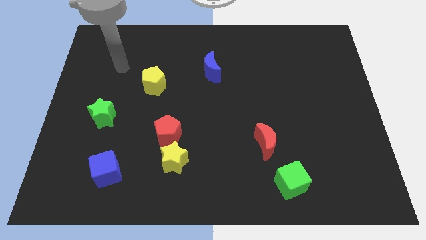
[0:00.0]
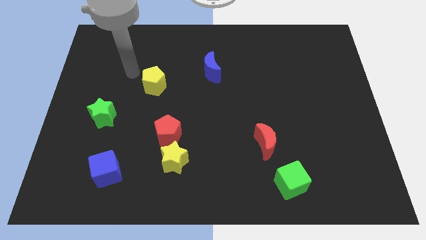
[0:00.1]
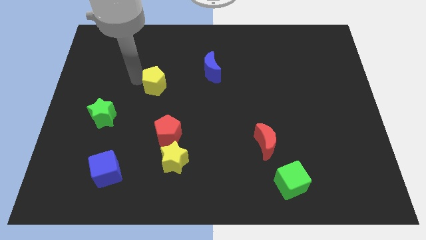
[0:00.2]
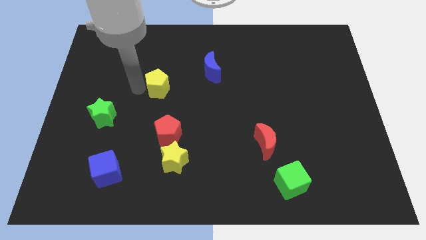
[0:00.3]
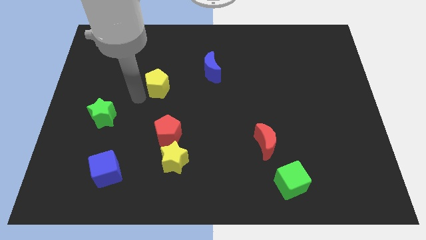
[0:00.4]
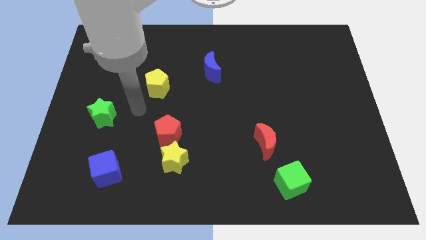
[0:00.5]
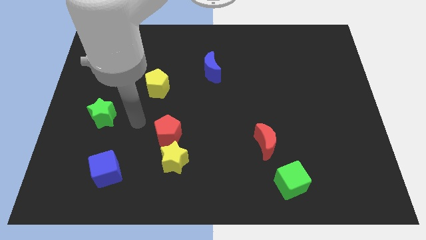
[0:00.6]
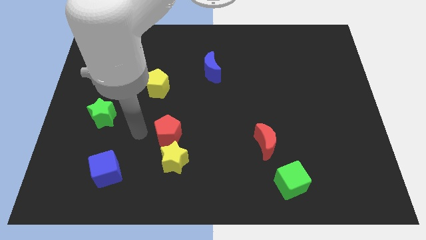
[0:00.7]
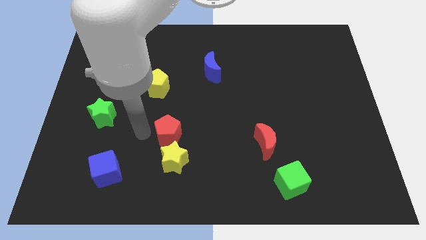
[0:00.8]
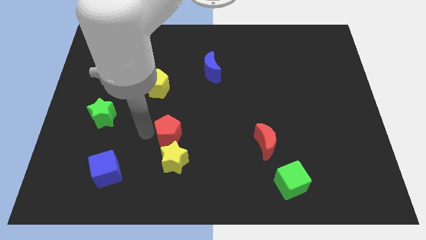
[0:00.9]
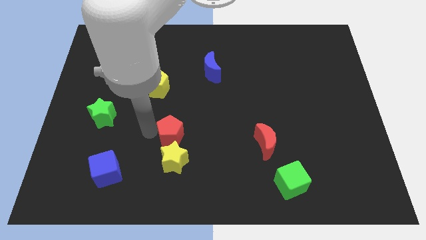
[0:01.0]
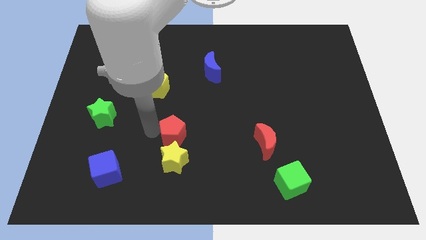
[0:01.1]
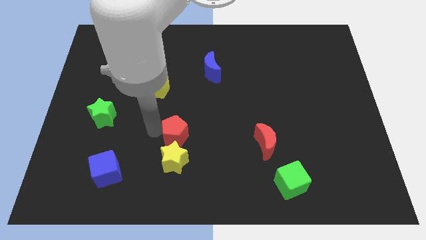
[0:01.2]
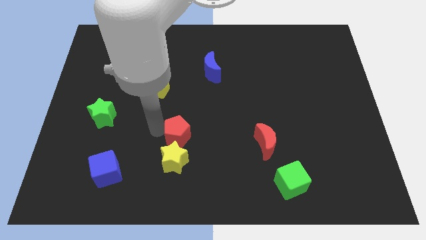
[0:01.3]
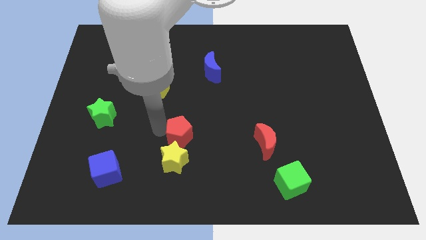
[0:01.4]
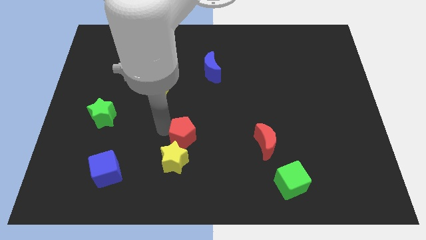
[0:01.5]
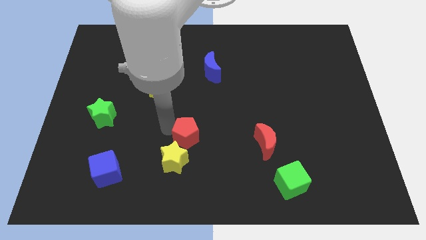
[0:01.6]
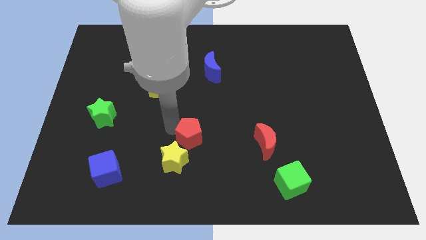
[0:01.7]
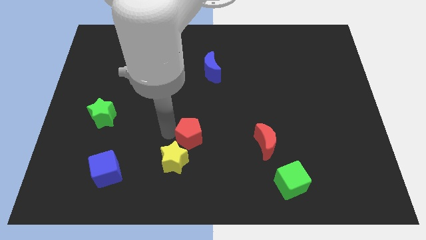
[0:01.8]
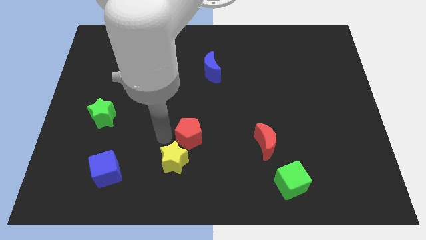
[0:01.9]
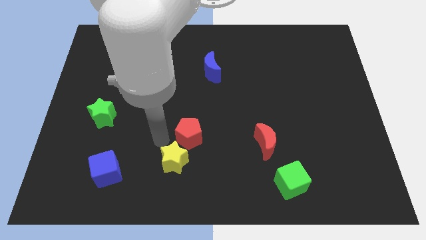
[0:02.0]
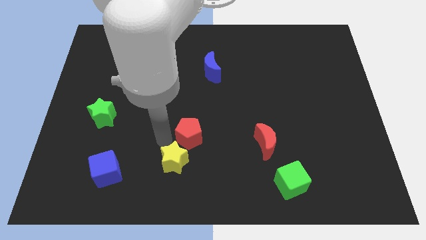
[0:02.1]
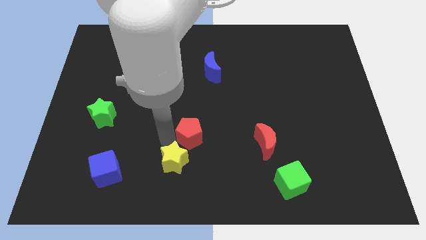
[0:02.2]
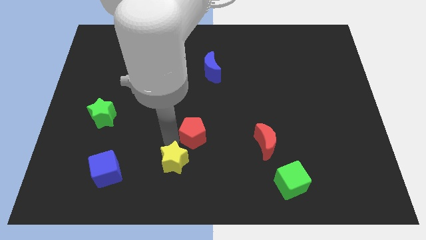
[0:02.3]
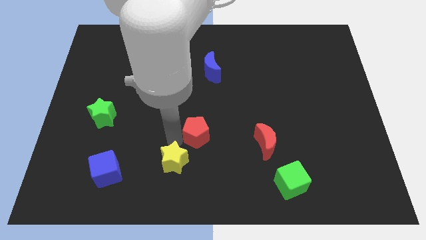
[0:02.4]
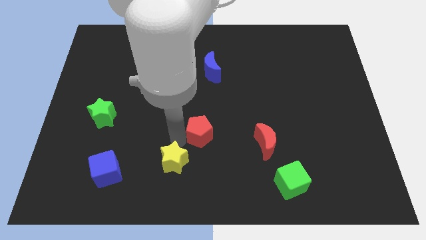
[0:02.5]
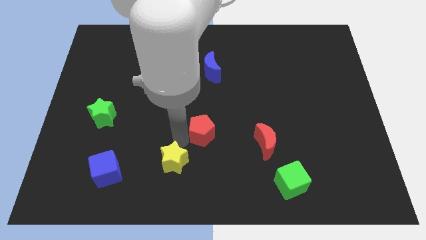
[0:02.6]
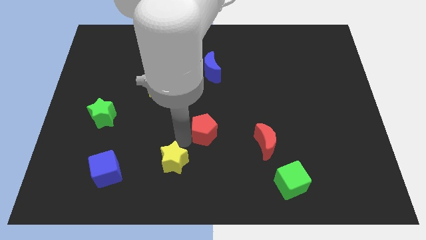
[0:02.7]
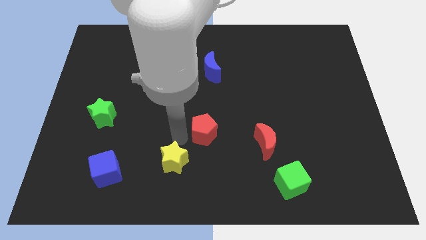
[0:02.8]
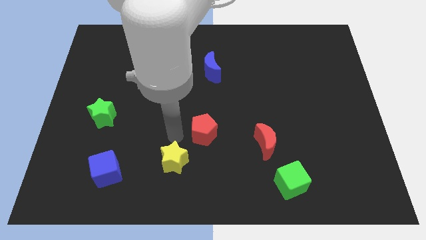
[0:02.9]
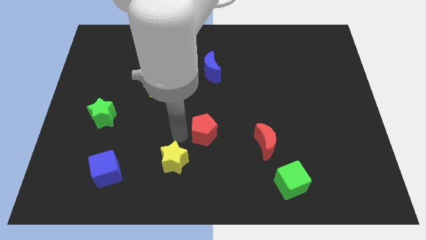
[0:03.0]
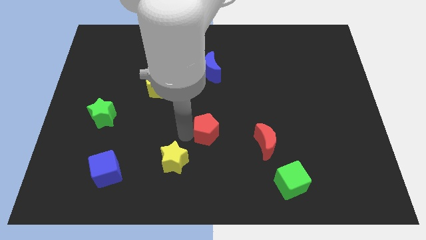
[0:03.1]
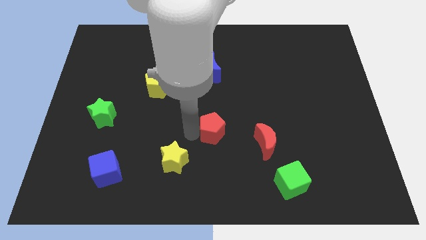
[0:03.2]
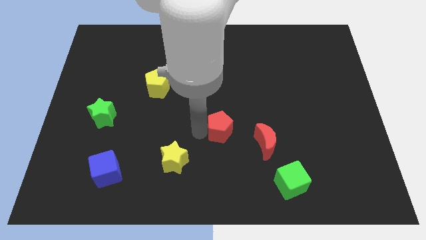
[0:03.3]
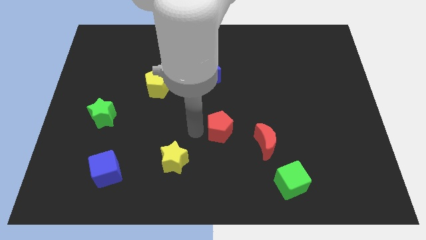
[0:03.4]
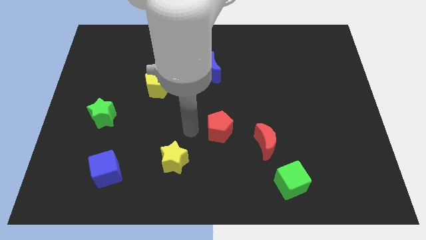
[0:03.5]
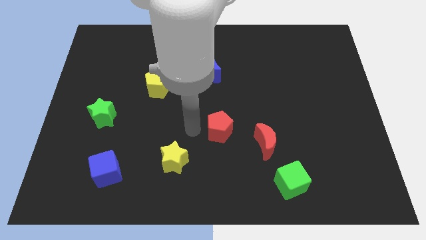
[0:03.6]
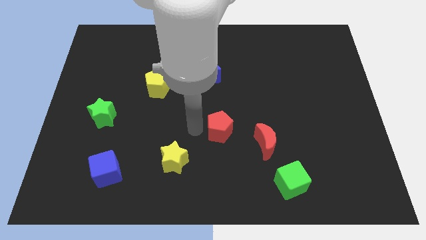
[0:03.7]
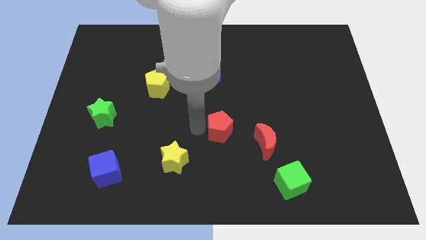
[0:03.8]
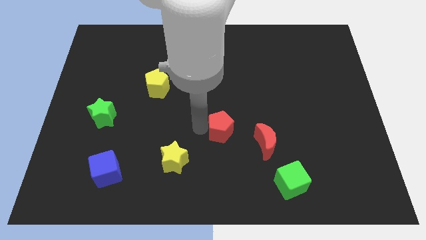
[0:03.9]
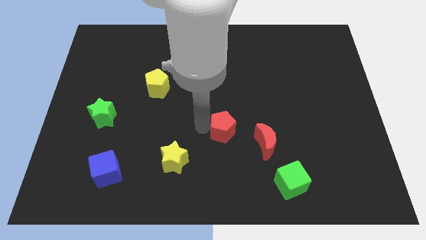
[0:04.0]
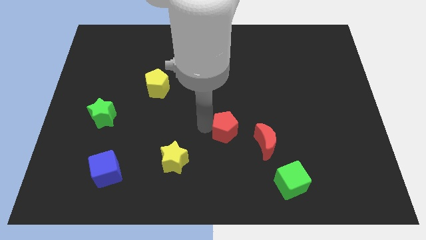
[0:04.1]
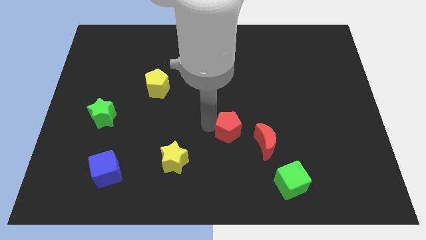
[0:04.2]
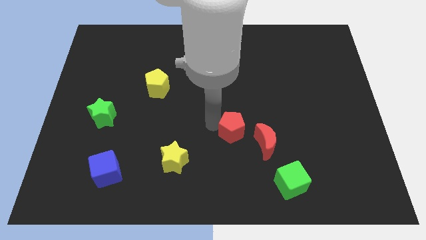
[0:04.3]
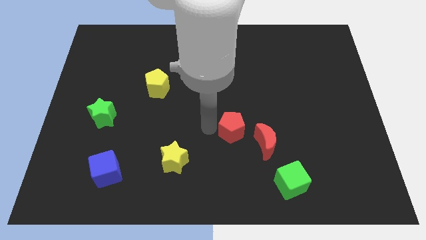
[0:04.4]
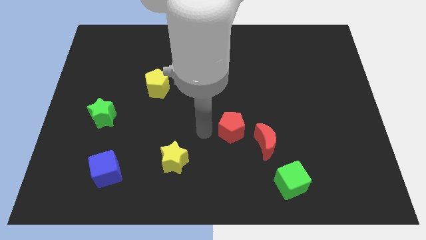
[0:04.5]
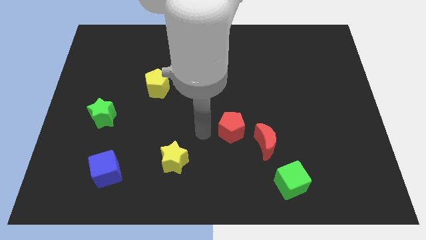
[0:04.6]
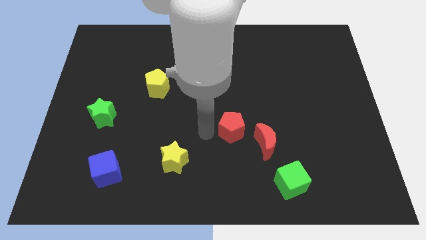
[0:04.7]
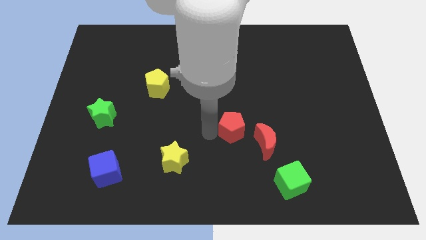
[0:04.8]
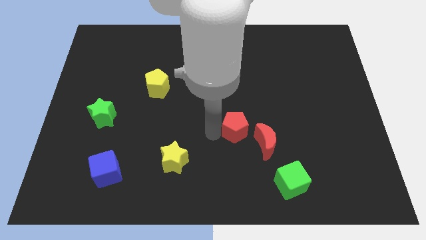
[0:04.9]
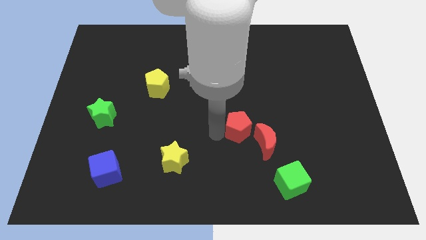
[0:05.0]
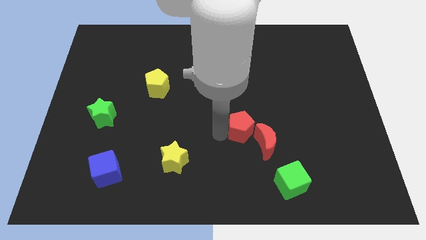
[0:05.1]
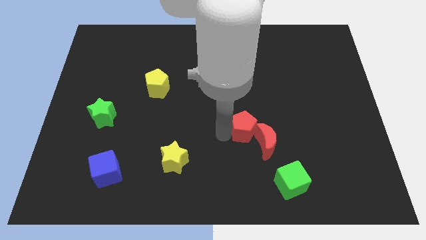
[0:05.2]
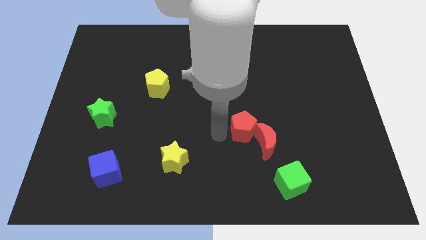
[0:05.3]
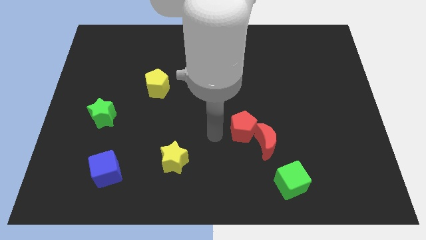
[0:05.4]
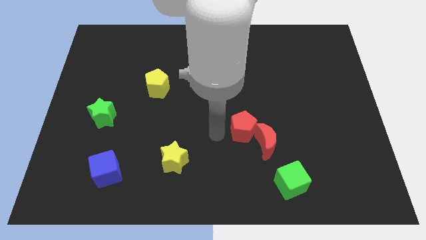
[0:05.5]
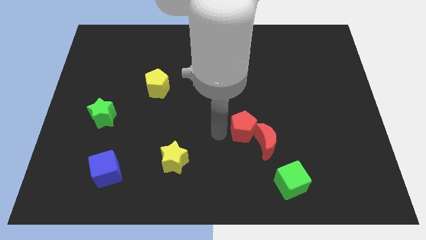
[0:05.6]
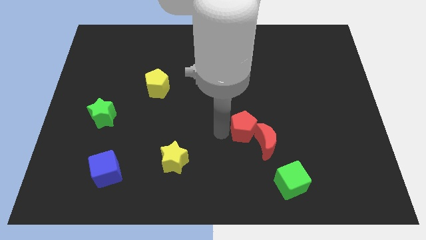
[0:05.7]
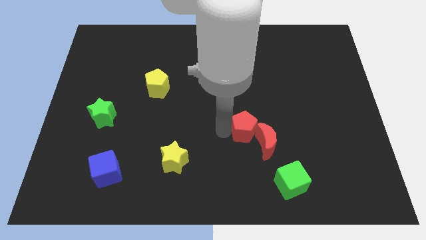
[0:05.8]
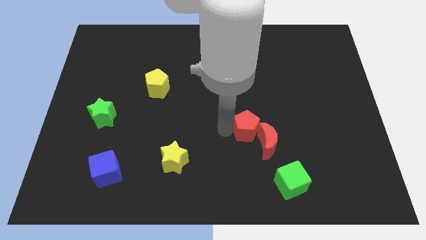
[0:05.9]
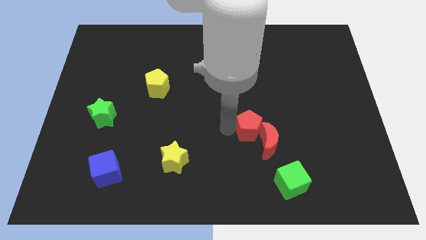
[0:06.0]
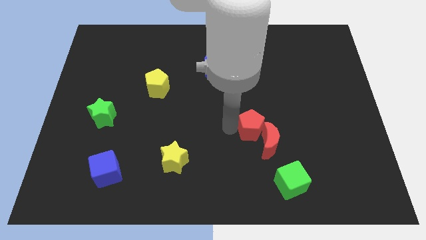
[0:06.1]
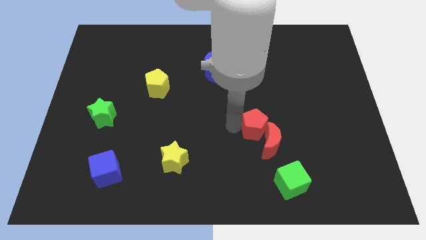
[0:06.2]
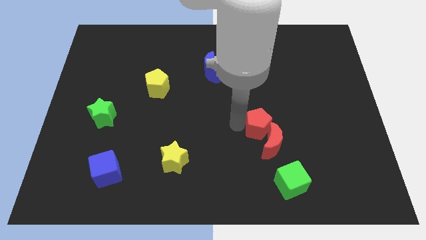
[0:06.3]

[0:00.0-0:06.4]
push the red pentagon to the right

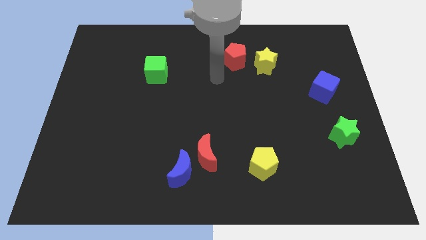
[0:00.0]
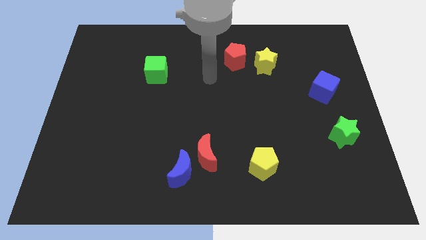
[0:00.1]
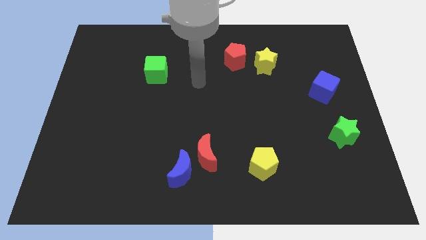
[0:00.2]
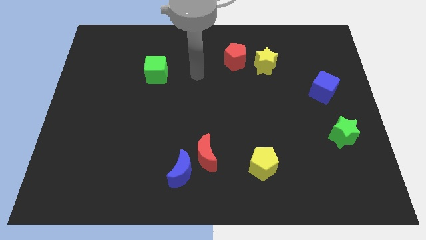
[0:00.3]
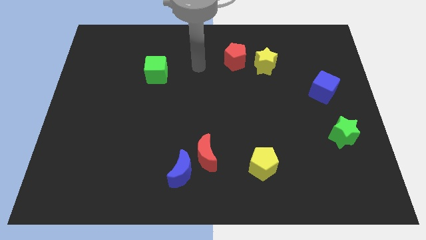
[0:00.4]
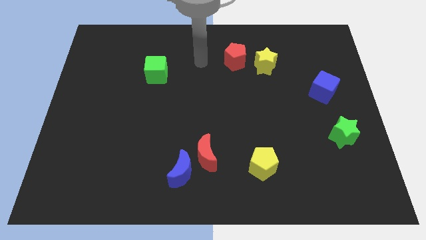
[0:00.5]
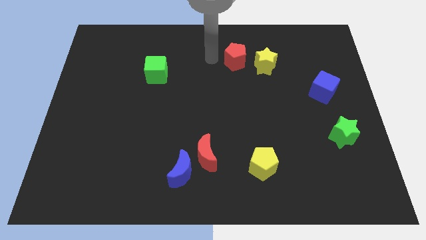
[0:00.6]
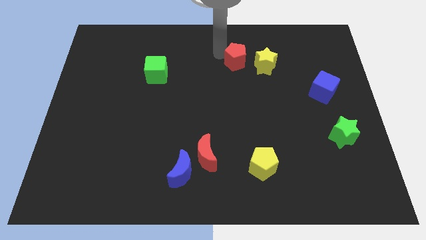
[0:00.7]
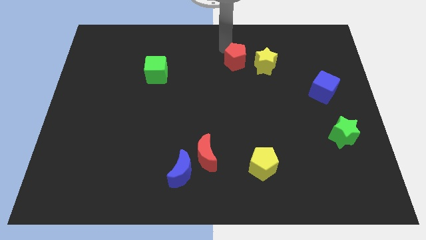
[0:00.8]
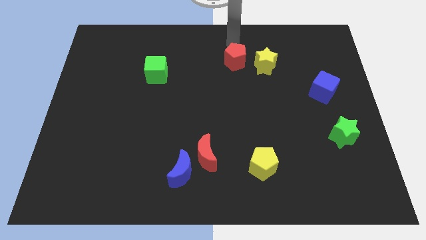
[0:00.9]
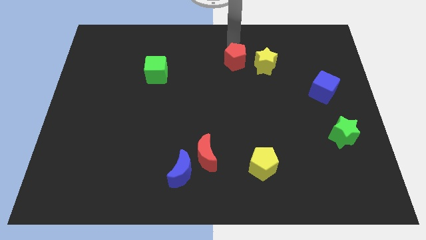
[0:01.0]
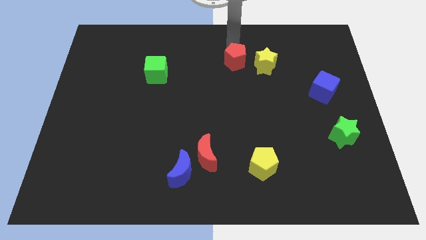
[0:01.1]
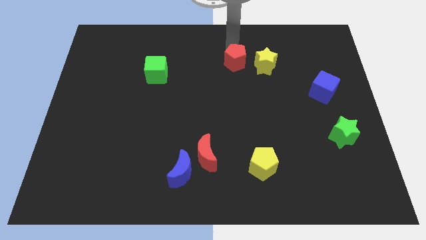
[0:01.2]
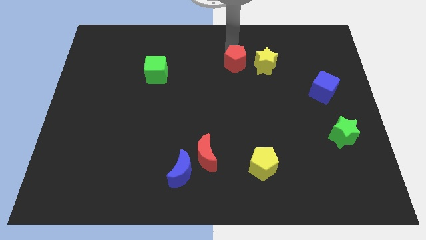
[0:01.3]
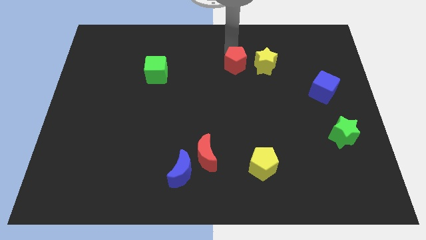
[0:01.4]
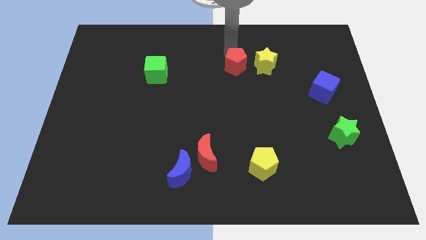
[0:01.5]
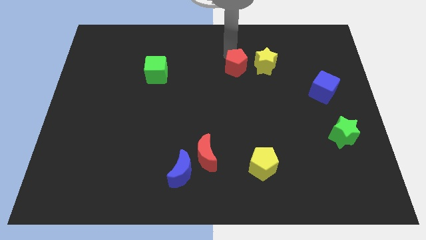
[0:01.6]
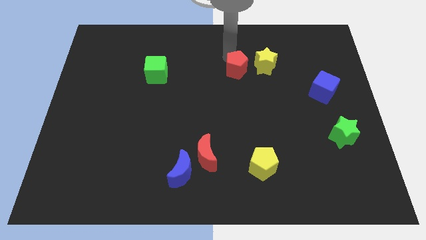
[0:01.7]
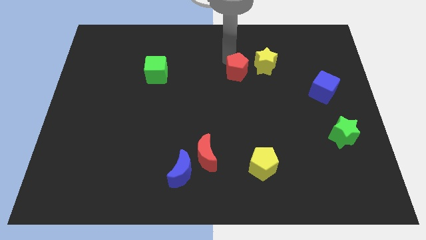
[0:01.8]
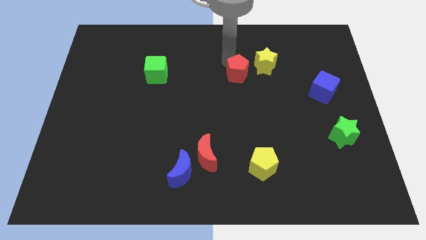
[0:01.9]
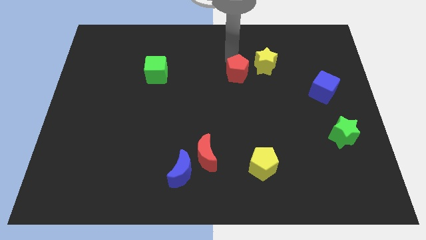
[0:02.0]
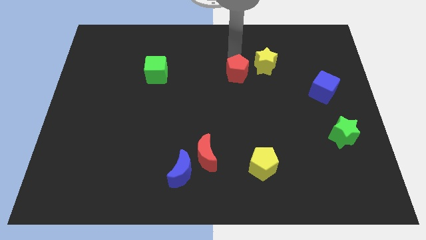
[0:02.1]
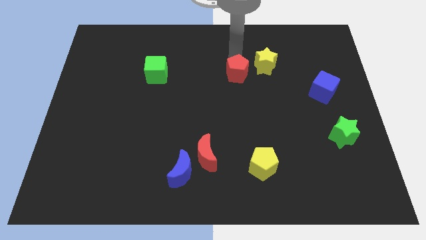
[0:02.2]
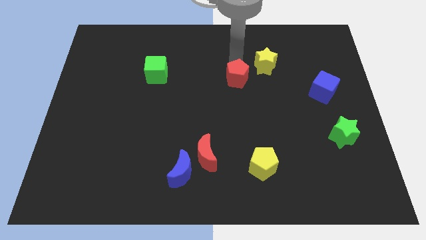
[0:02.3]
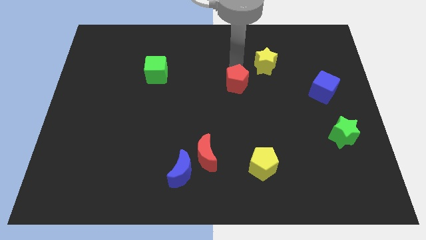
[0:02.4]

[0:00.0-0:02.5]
push the red pentagon a little bit downwards
